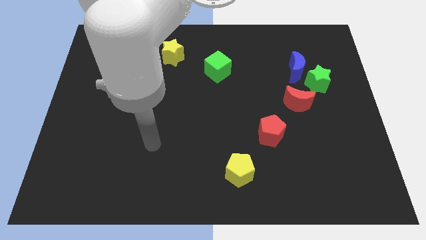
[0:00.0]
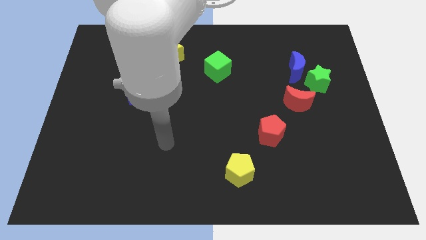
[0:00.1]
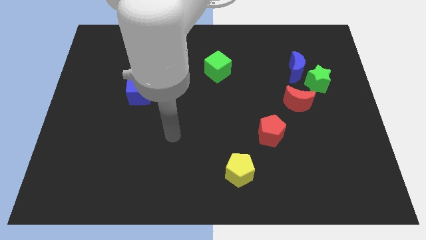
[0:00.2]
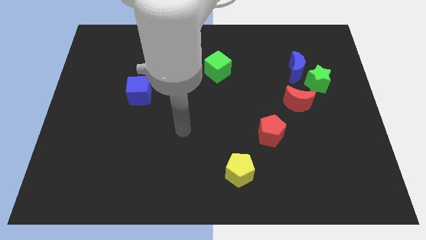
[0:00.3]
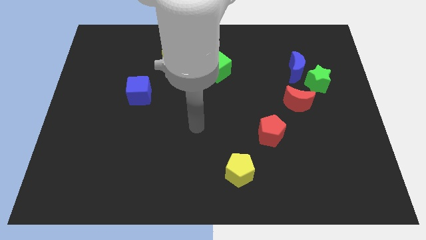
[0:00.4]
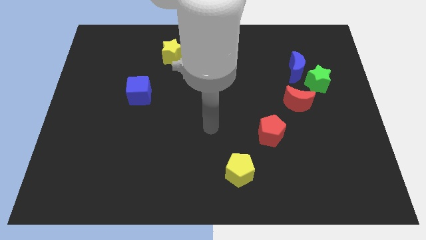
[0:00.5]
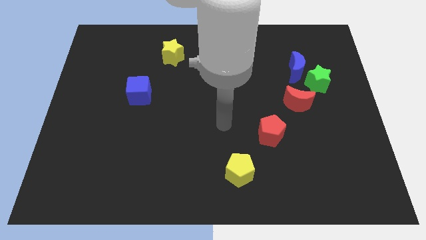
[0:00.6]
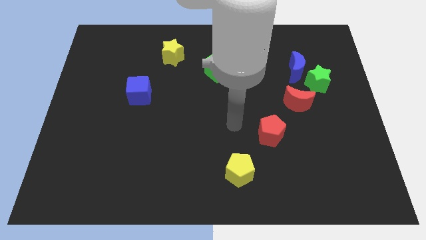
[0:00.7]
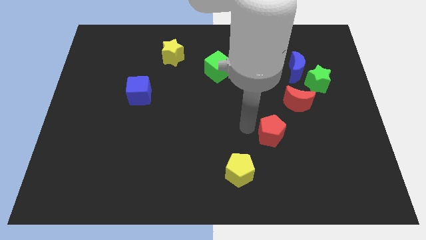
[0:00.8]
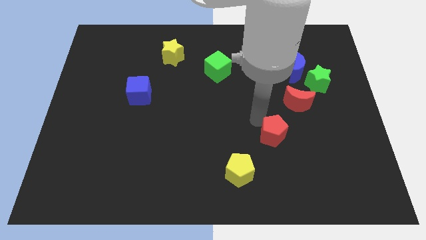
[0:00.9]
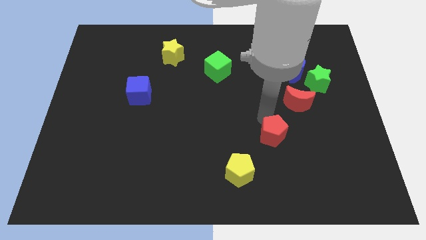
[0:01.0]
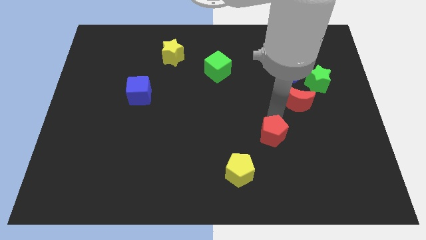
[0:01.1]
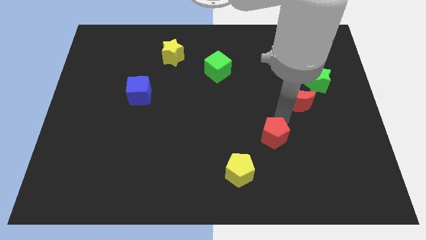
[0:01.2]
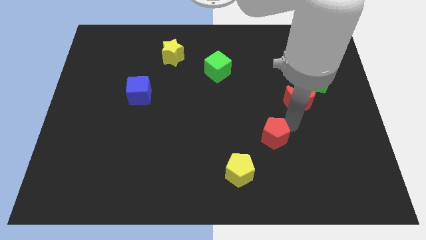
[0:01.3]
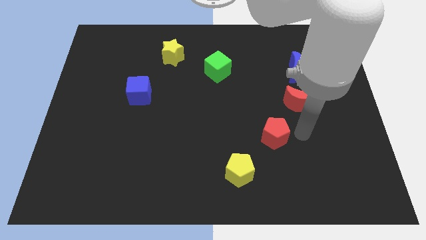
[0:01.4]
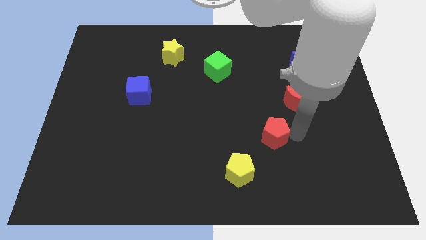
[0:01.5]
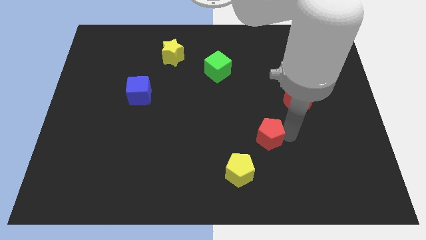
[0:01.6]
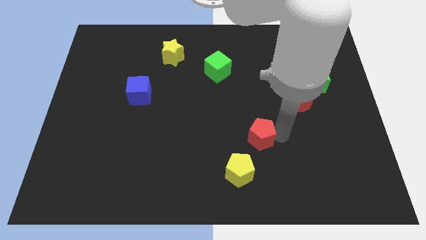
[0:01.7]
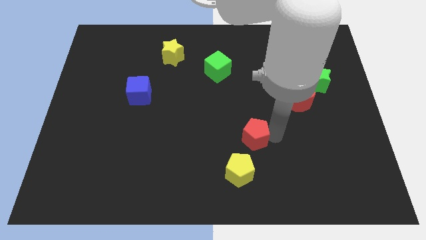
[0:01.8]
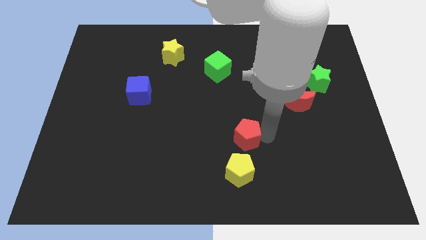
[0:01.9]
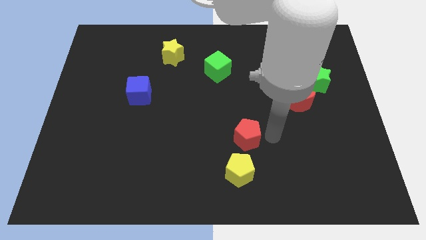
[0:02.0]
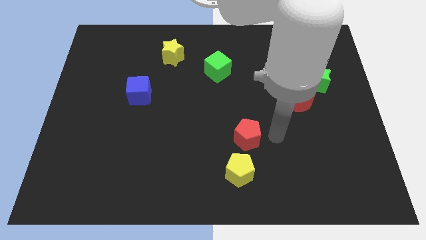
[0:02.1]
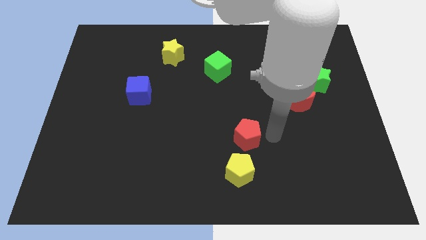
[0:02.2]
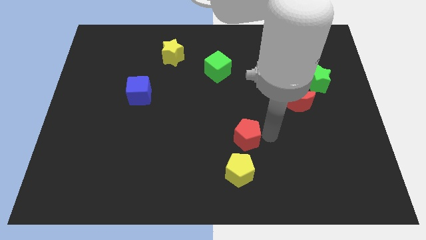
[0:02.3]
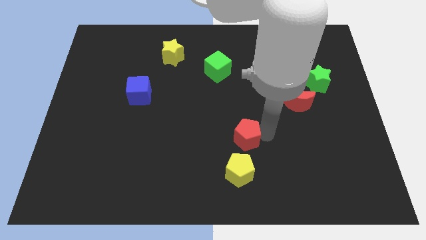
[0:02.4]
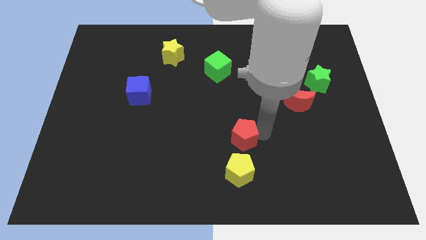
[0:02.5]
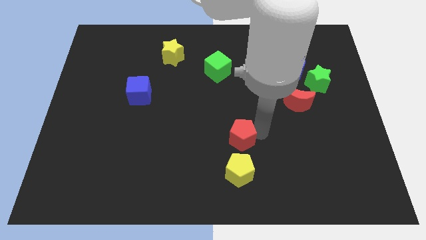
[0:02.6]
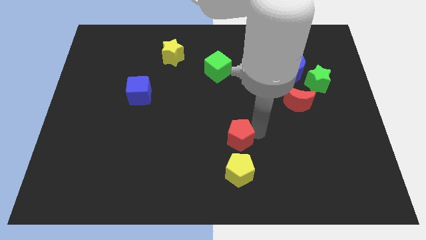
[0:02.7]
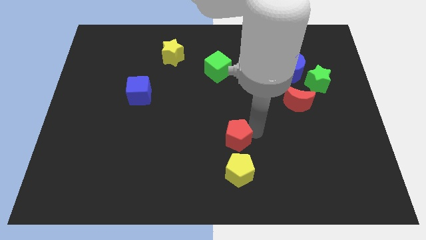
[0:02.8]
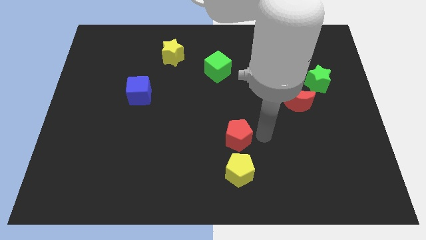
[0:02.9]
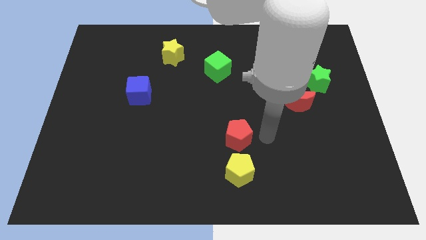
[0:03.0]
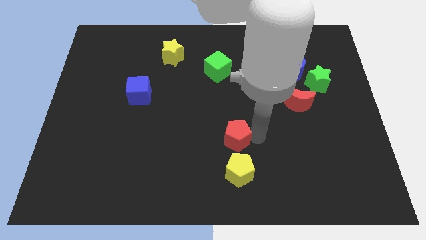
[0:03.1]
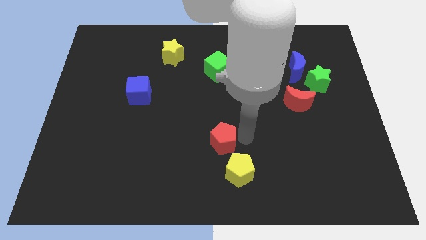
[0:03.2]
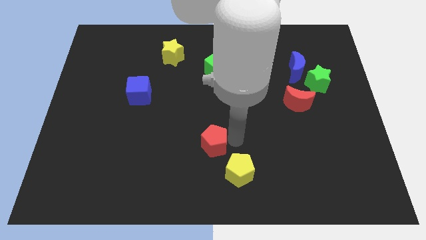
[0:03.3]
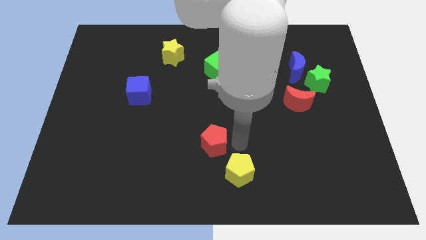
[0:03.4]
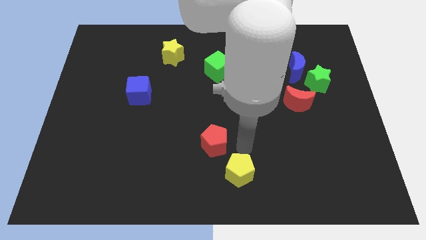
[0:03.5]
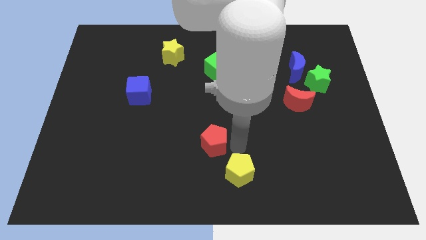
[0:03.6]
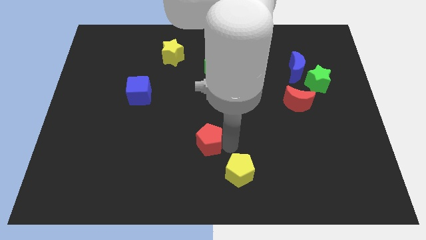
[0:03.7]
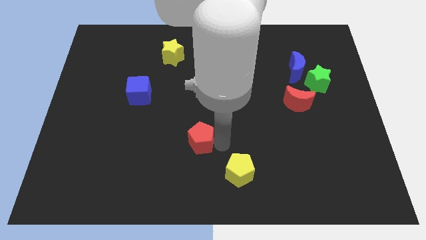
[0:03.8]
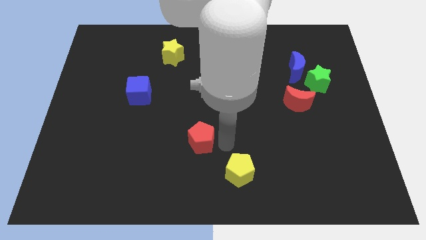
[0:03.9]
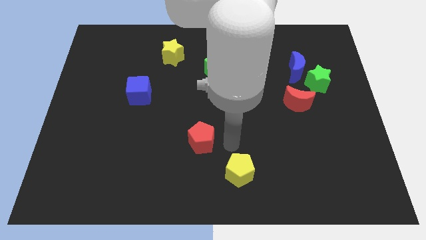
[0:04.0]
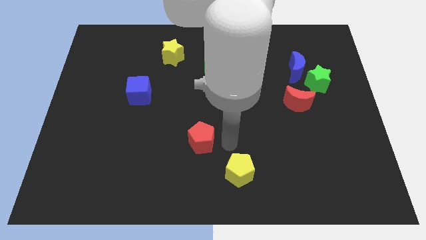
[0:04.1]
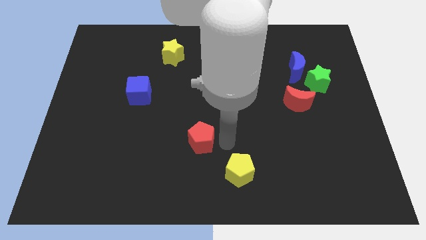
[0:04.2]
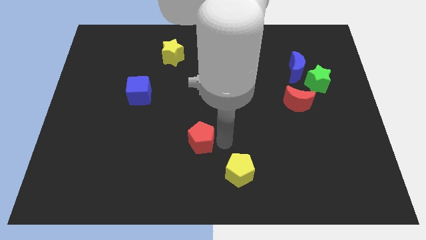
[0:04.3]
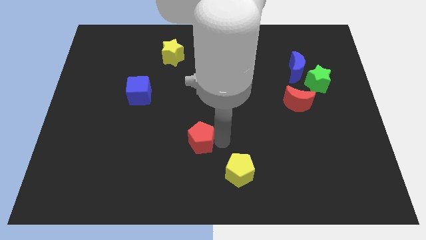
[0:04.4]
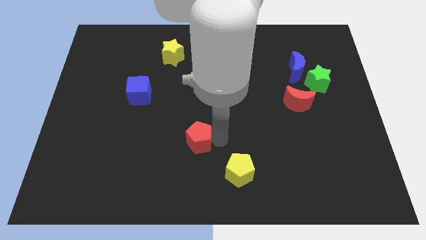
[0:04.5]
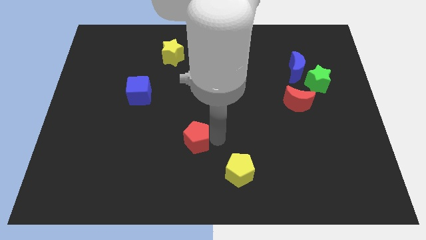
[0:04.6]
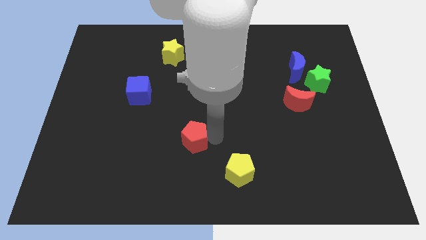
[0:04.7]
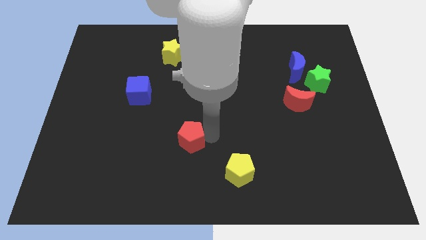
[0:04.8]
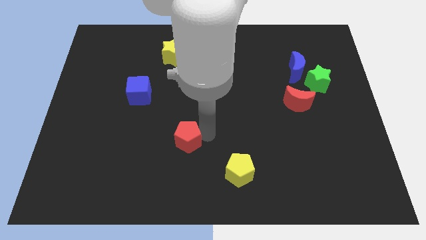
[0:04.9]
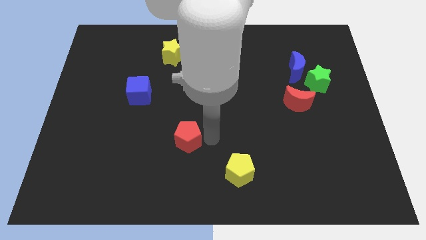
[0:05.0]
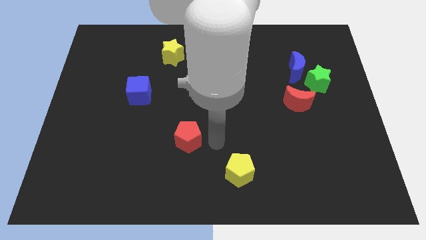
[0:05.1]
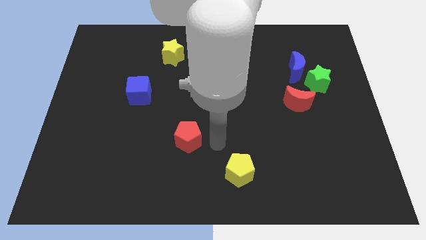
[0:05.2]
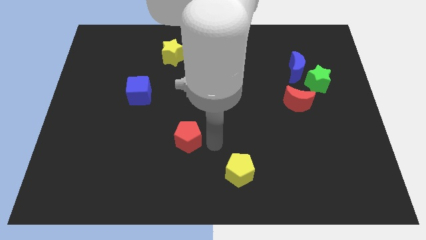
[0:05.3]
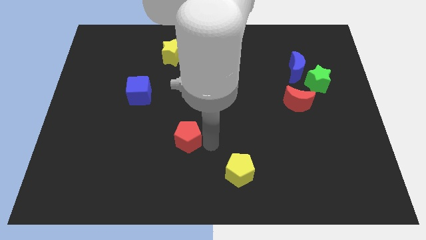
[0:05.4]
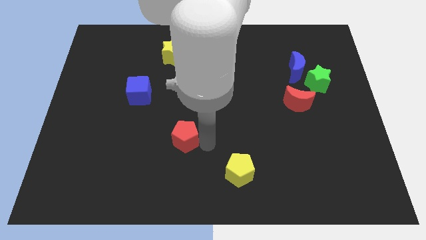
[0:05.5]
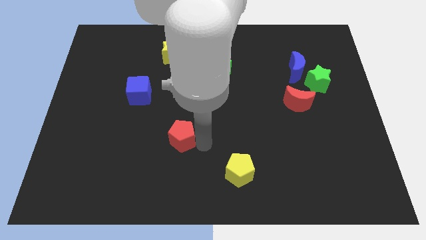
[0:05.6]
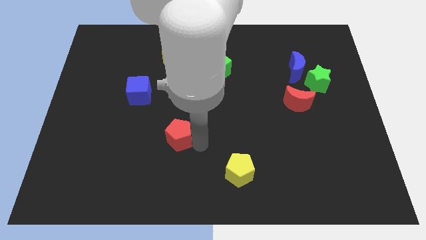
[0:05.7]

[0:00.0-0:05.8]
push the red pentagon to the left

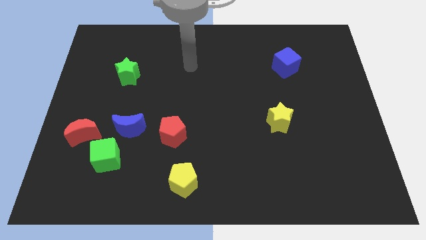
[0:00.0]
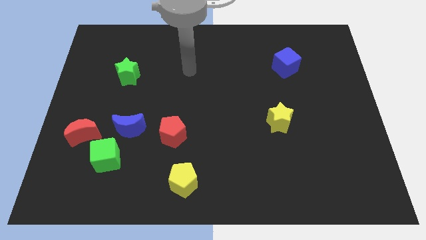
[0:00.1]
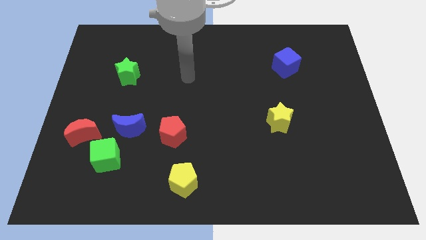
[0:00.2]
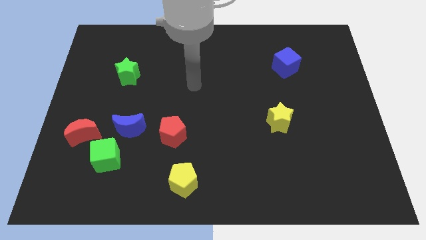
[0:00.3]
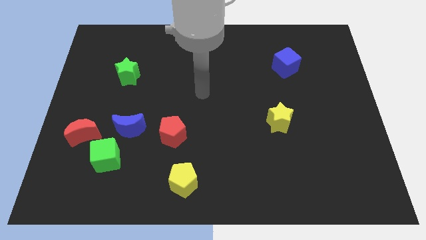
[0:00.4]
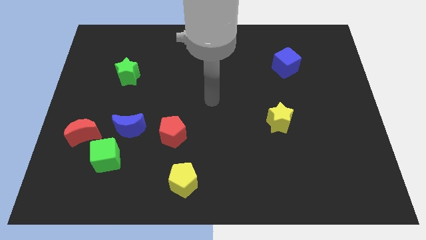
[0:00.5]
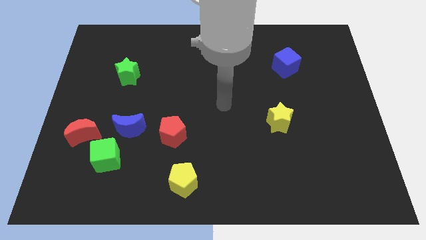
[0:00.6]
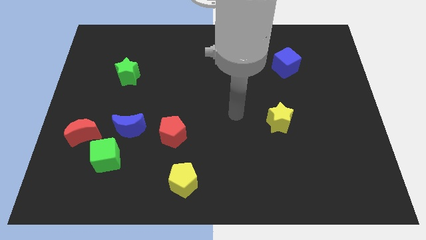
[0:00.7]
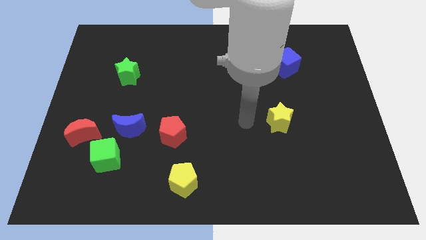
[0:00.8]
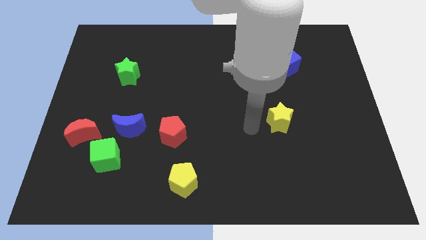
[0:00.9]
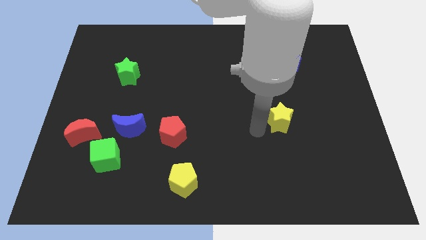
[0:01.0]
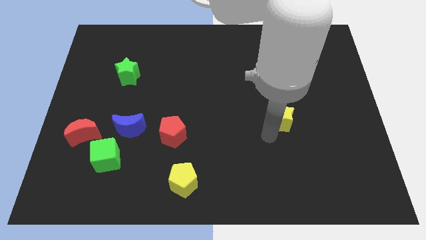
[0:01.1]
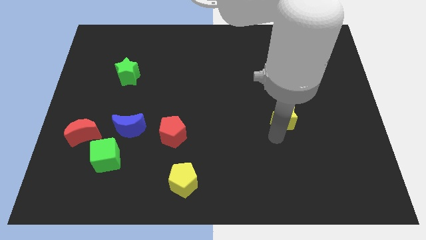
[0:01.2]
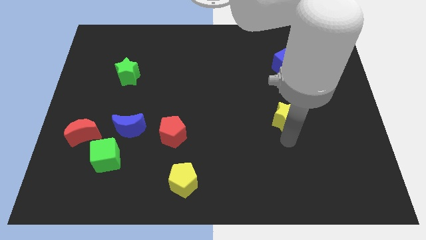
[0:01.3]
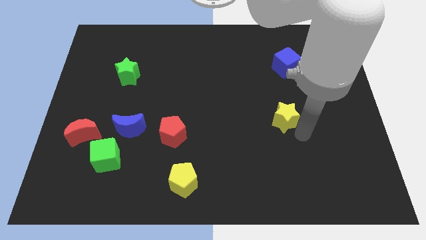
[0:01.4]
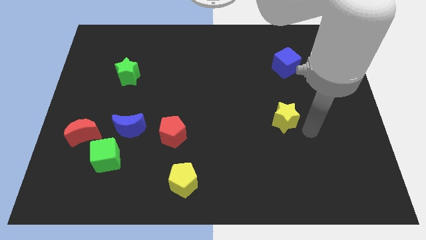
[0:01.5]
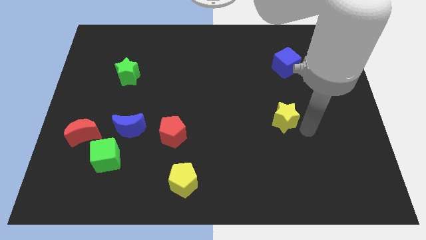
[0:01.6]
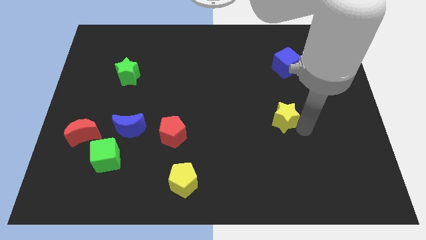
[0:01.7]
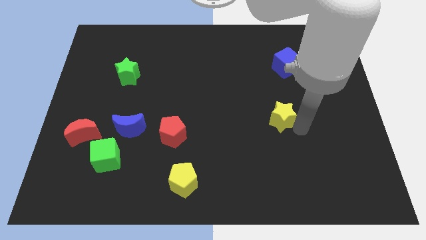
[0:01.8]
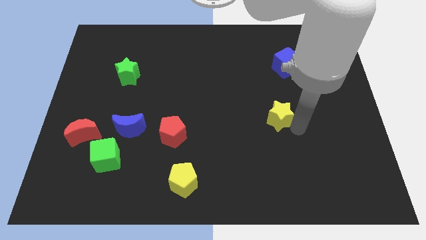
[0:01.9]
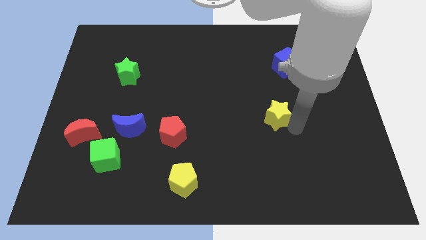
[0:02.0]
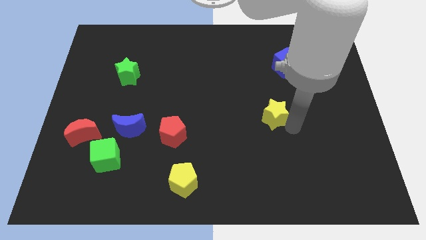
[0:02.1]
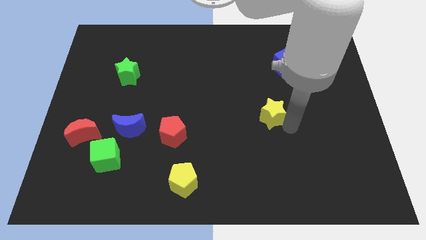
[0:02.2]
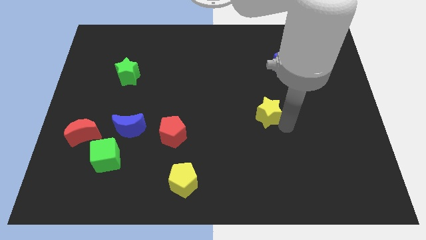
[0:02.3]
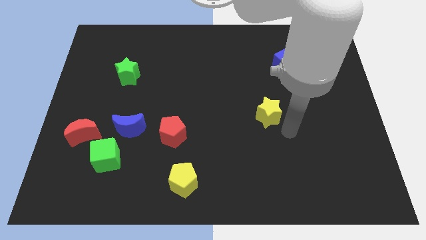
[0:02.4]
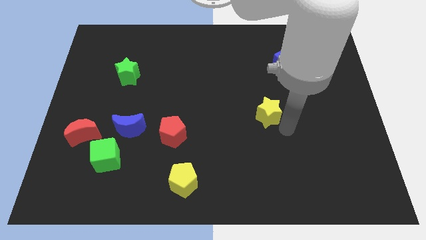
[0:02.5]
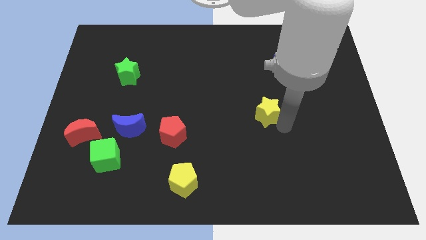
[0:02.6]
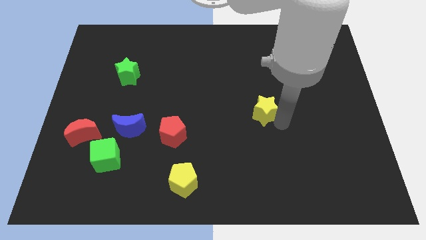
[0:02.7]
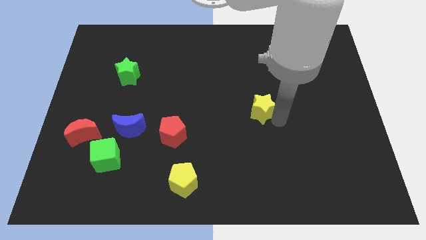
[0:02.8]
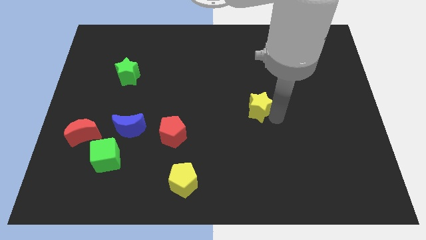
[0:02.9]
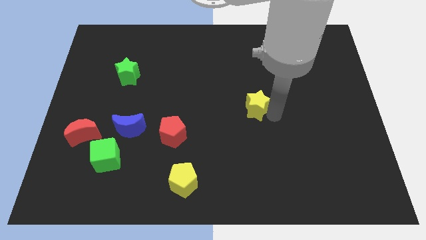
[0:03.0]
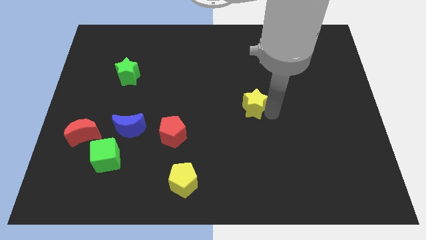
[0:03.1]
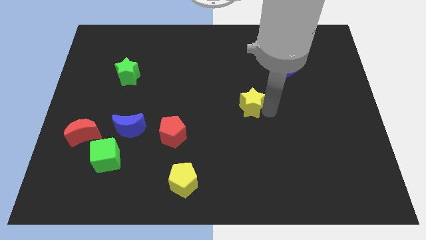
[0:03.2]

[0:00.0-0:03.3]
slightly push the yellow star upwards and to the left
